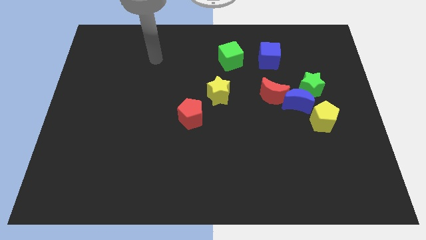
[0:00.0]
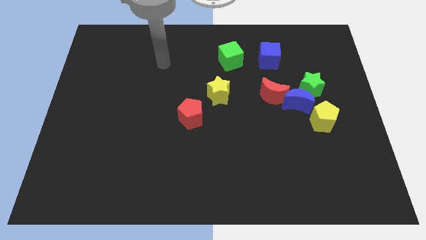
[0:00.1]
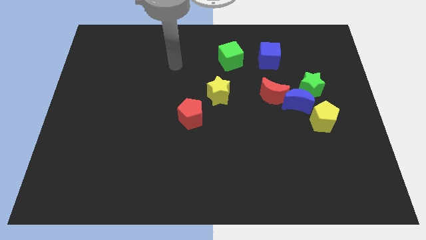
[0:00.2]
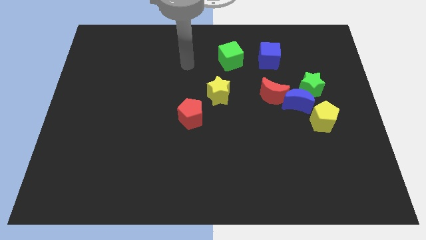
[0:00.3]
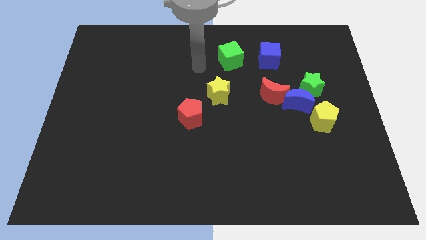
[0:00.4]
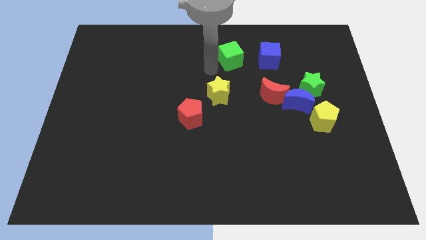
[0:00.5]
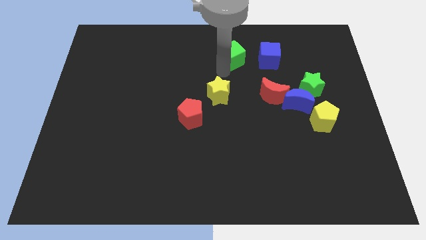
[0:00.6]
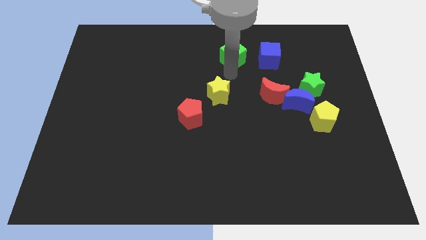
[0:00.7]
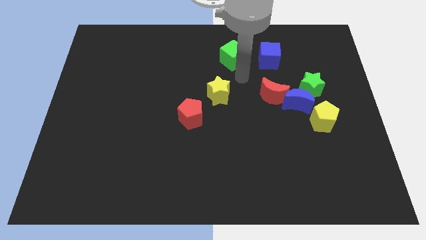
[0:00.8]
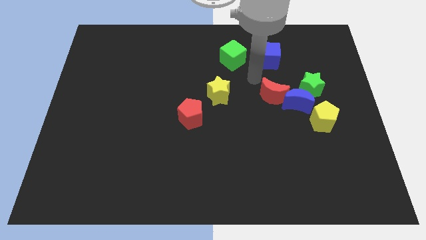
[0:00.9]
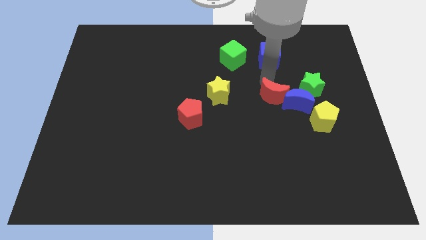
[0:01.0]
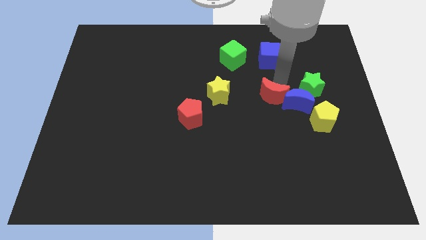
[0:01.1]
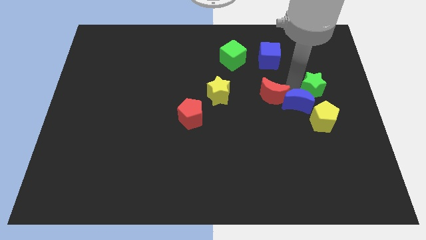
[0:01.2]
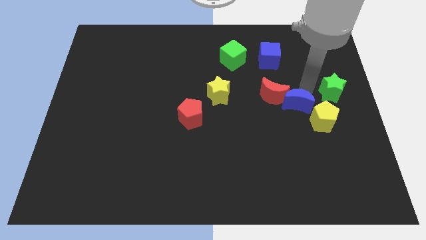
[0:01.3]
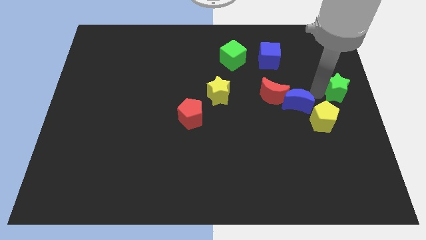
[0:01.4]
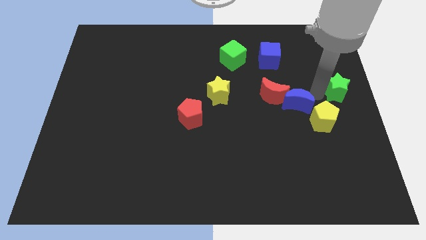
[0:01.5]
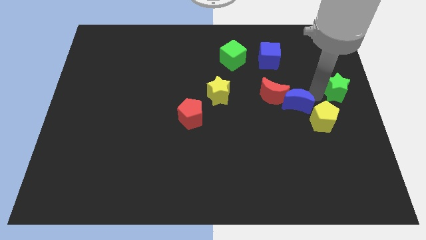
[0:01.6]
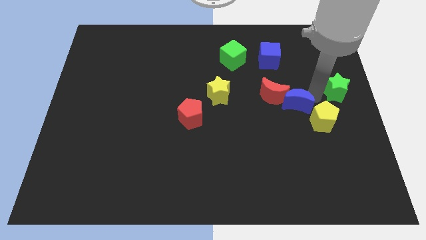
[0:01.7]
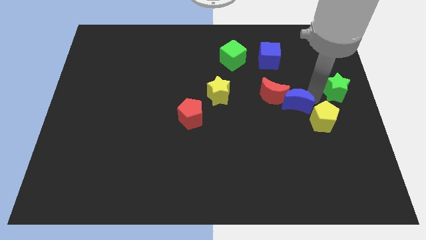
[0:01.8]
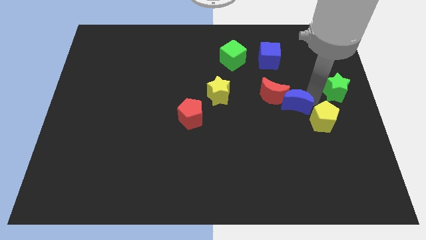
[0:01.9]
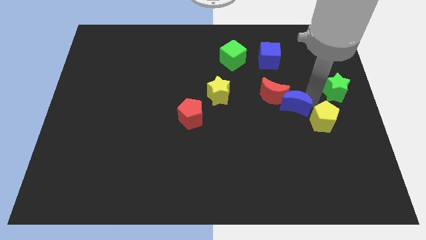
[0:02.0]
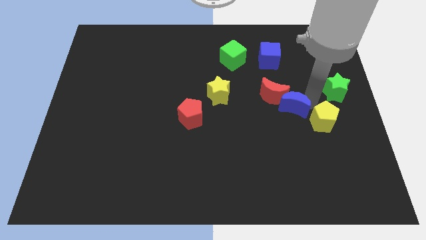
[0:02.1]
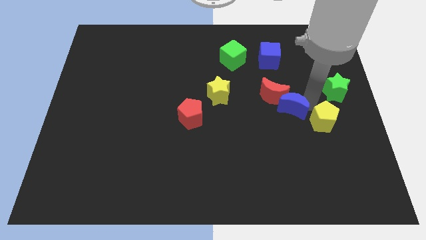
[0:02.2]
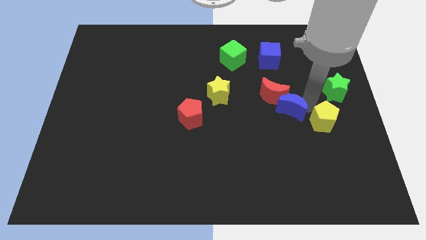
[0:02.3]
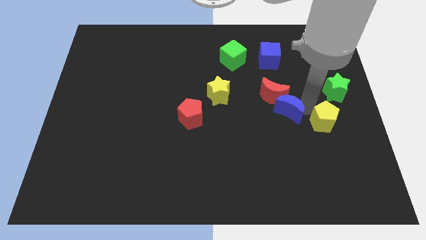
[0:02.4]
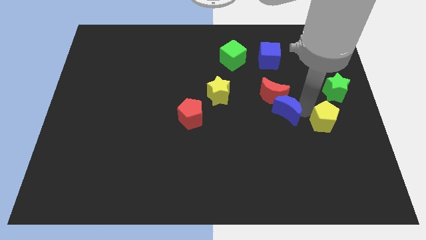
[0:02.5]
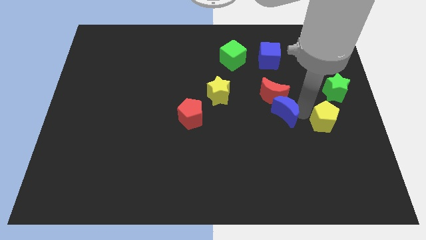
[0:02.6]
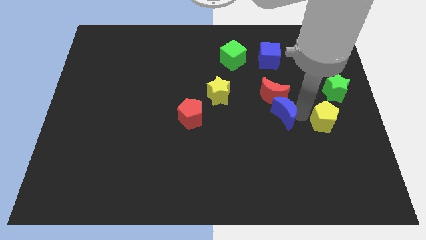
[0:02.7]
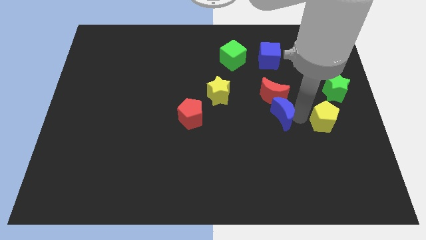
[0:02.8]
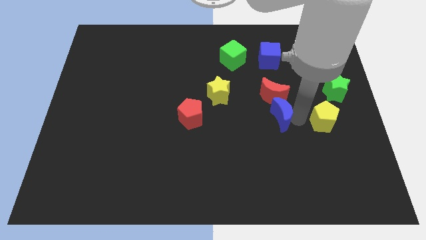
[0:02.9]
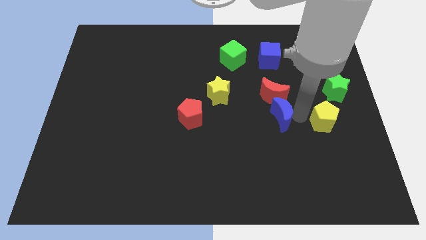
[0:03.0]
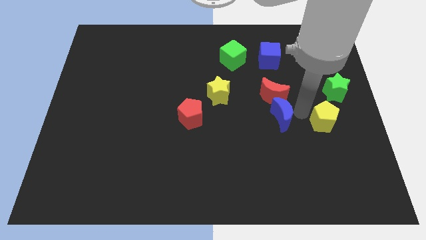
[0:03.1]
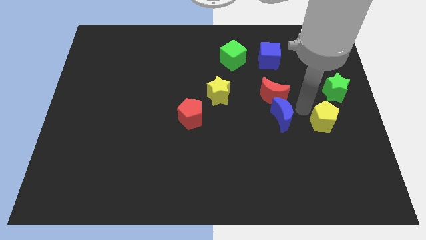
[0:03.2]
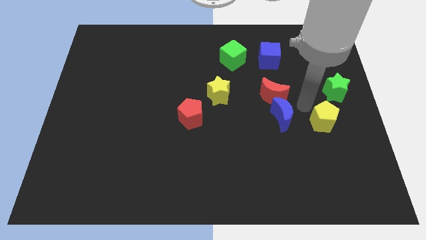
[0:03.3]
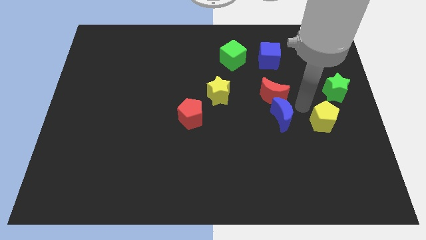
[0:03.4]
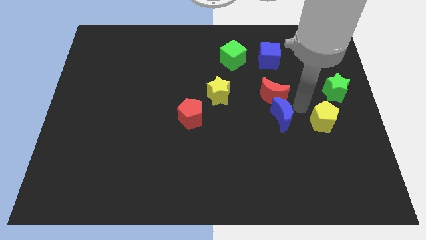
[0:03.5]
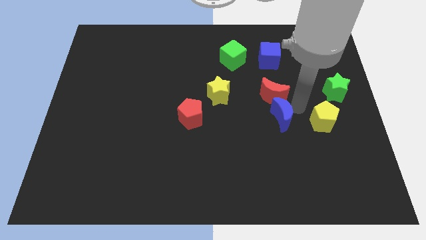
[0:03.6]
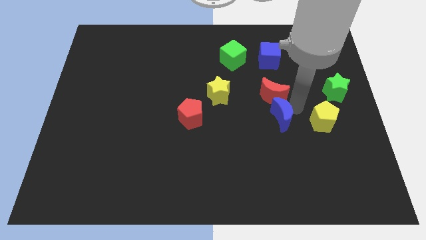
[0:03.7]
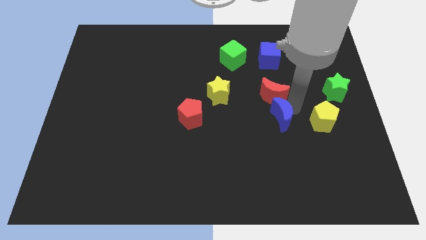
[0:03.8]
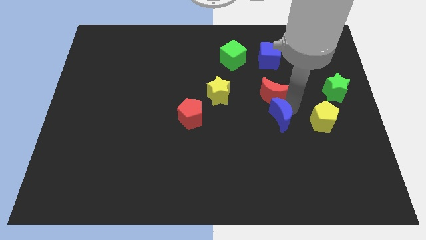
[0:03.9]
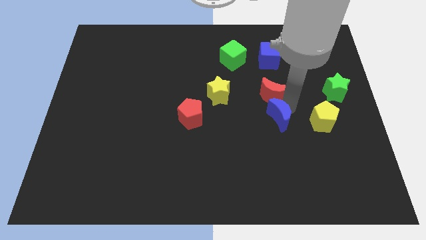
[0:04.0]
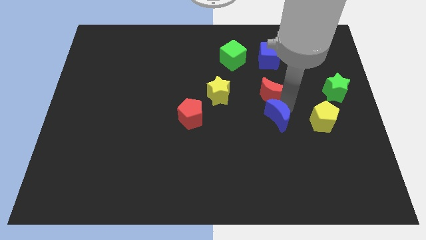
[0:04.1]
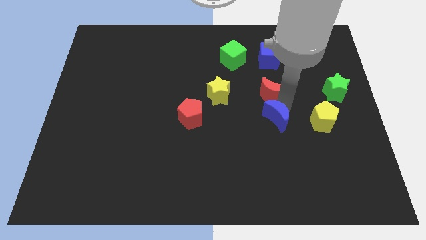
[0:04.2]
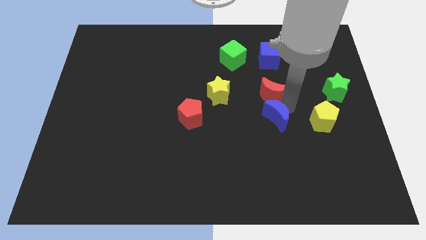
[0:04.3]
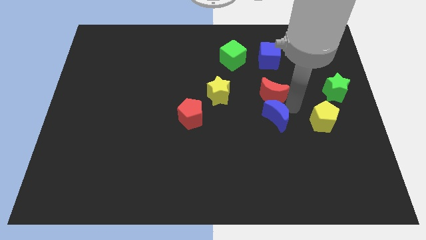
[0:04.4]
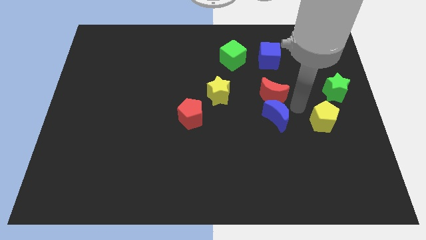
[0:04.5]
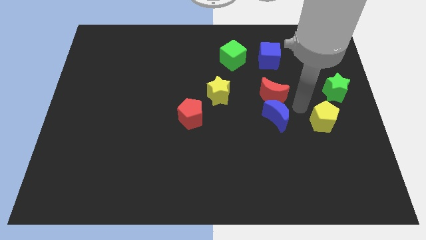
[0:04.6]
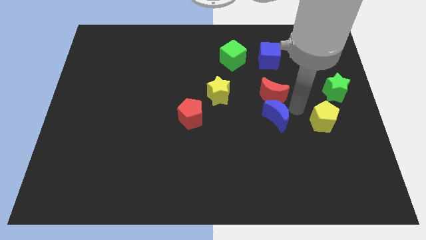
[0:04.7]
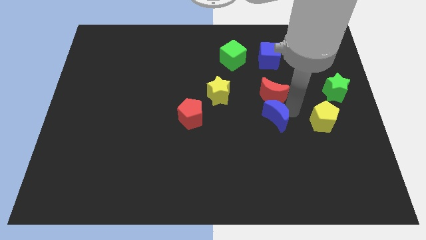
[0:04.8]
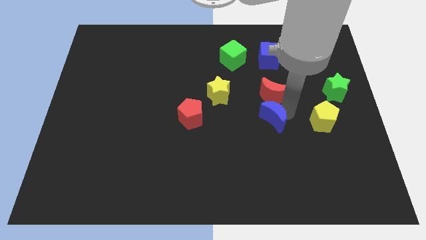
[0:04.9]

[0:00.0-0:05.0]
pull the blue moon apart from the green star, red moon, and yellow pentagon

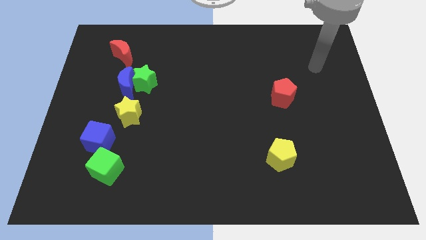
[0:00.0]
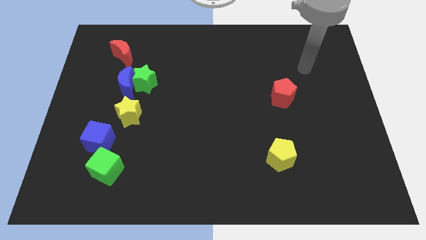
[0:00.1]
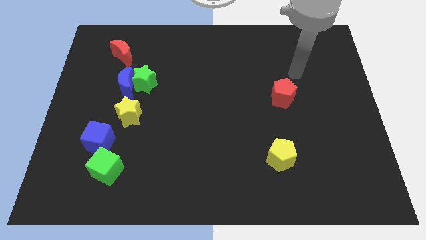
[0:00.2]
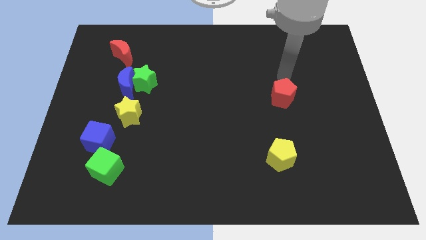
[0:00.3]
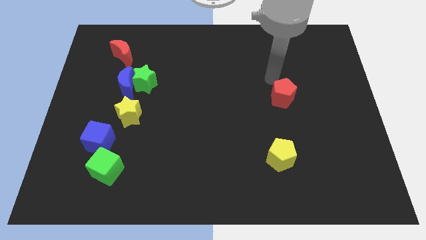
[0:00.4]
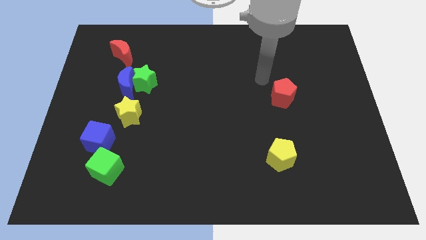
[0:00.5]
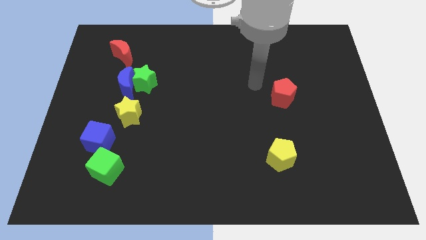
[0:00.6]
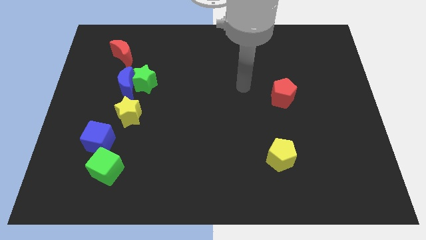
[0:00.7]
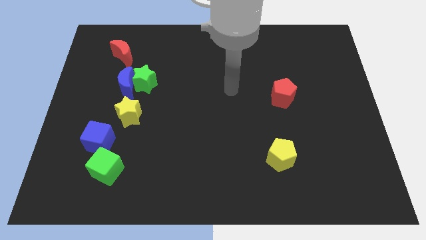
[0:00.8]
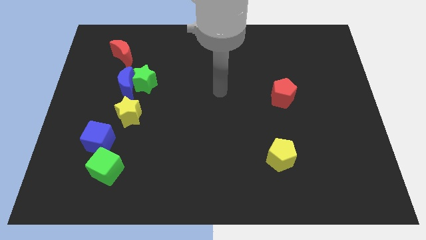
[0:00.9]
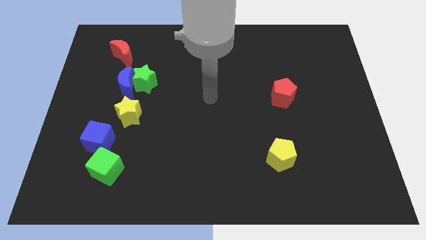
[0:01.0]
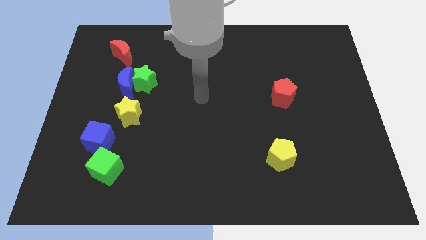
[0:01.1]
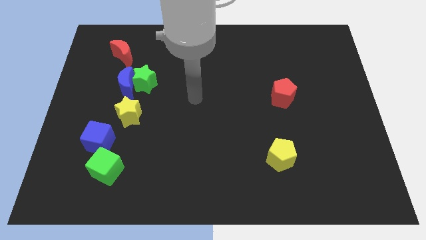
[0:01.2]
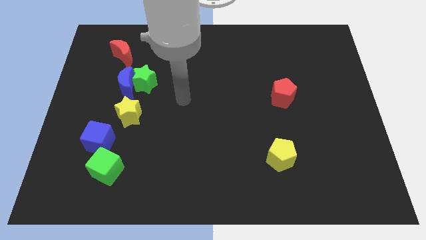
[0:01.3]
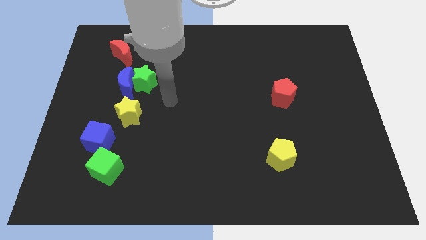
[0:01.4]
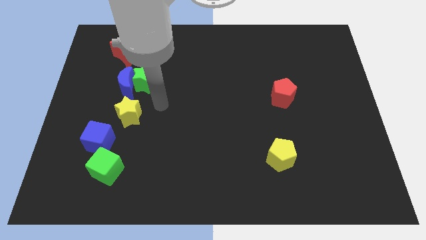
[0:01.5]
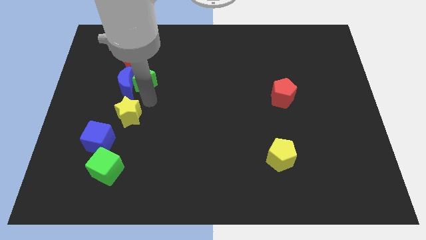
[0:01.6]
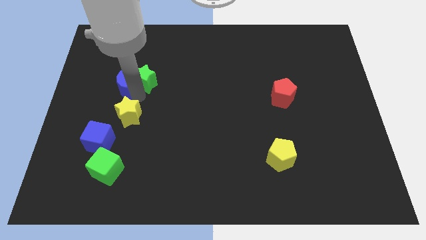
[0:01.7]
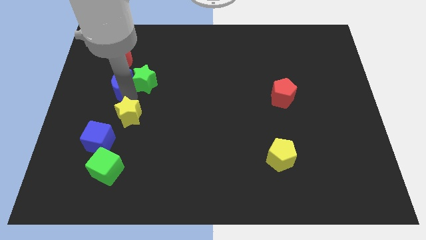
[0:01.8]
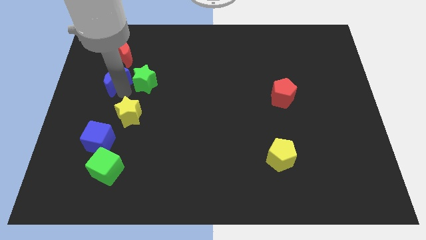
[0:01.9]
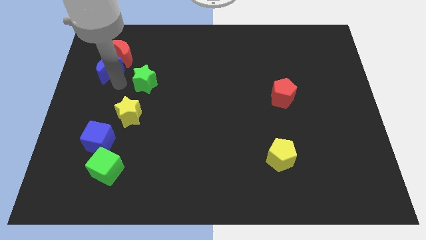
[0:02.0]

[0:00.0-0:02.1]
separate the green star from the blue moon

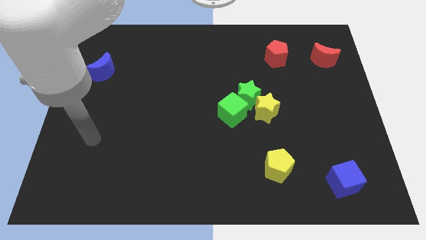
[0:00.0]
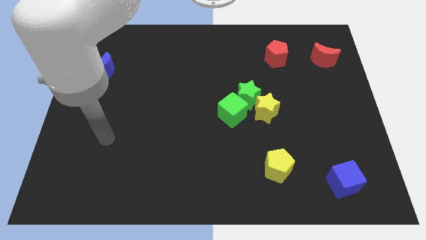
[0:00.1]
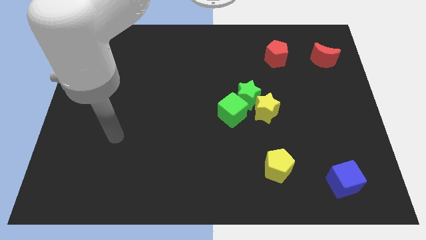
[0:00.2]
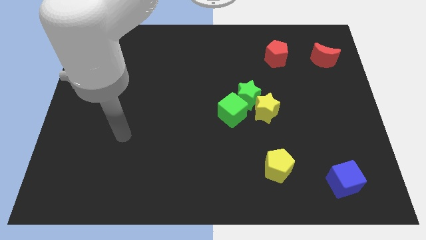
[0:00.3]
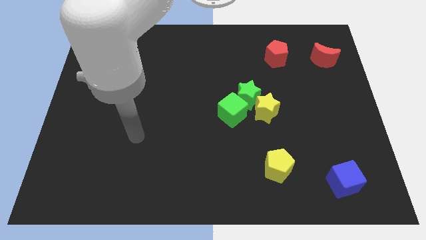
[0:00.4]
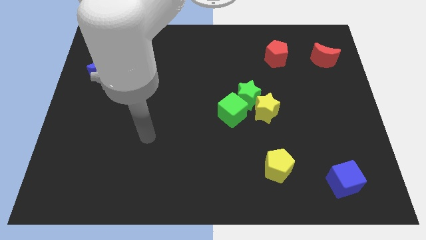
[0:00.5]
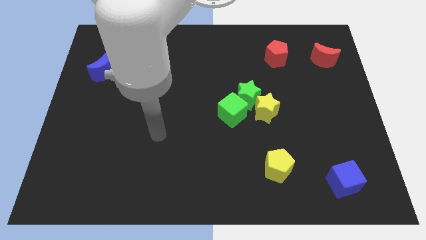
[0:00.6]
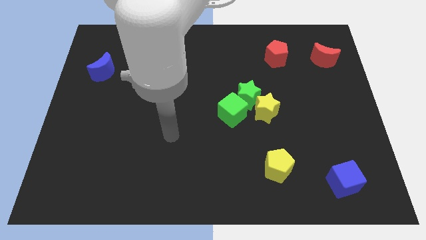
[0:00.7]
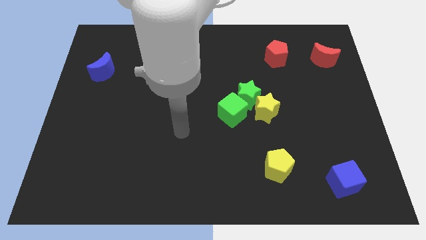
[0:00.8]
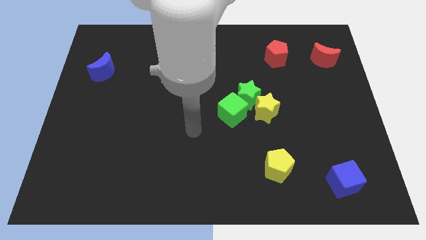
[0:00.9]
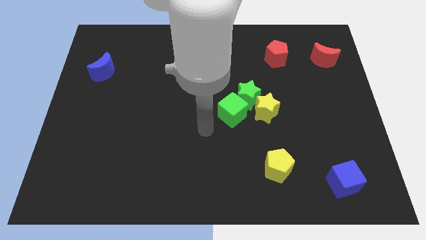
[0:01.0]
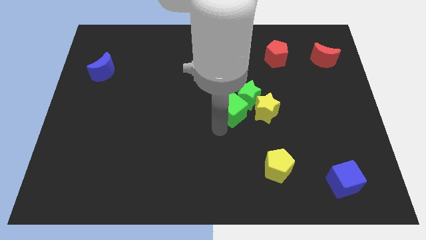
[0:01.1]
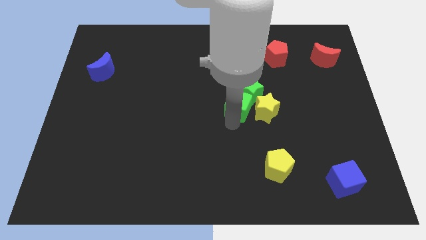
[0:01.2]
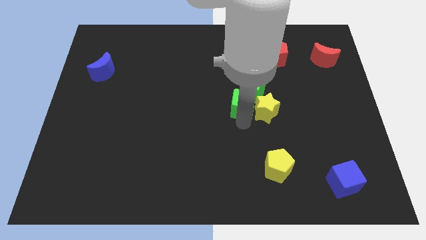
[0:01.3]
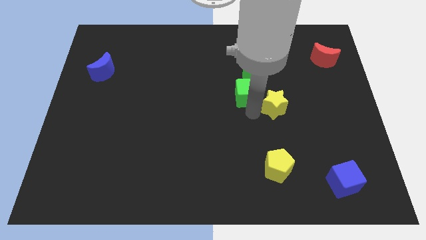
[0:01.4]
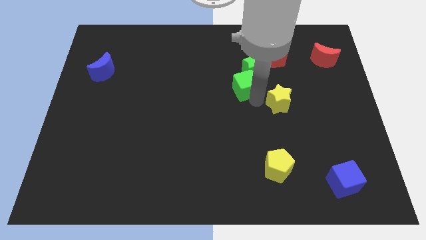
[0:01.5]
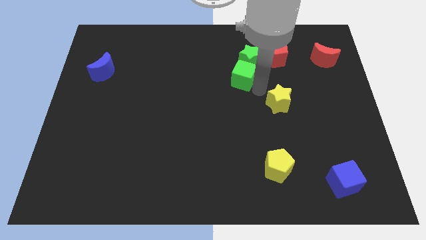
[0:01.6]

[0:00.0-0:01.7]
separate the green star from the yellow star and green cube

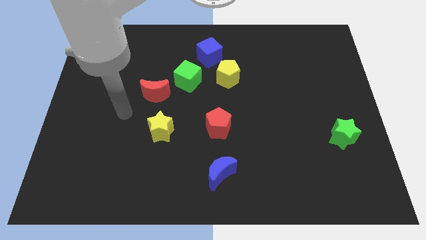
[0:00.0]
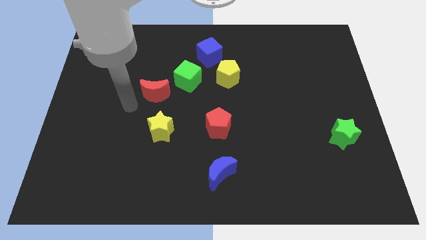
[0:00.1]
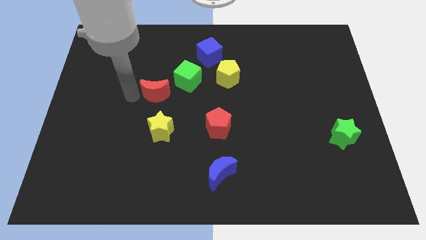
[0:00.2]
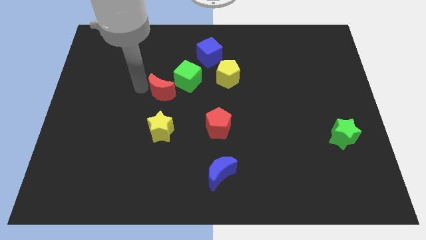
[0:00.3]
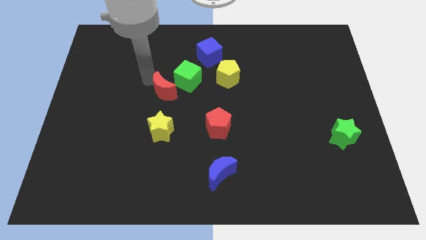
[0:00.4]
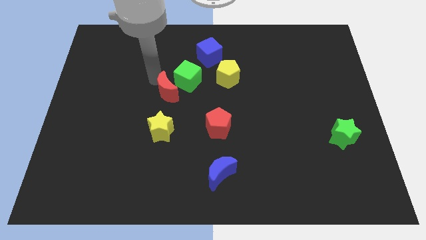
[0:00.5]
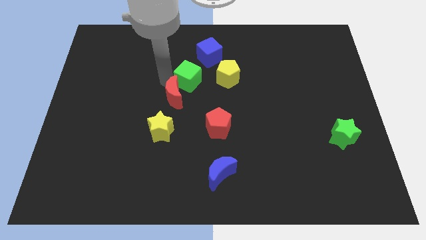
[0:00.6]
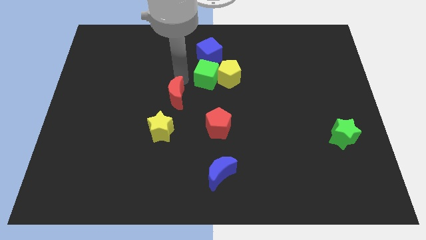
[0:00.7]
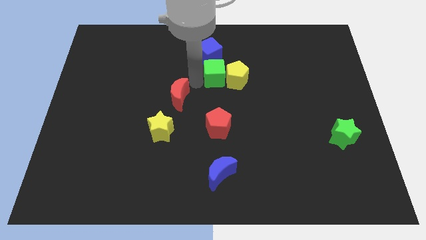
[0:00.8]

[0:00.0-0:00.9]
move the red moon away from the green cube
